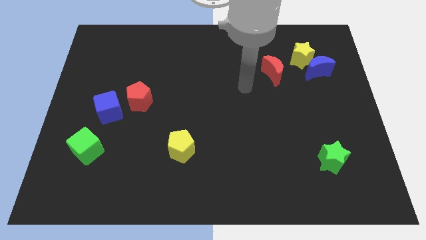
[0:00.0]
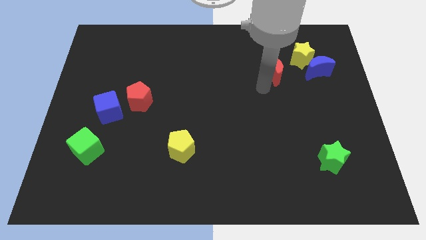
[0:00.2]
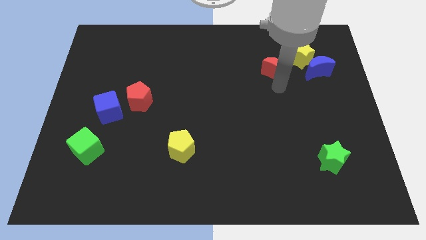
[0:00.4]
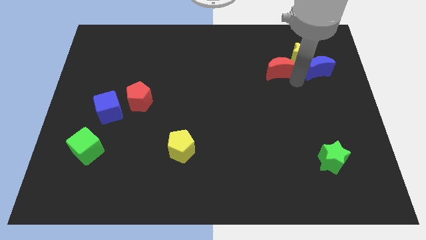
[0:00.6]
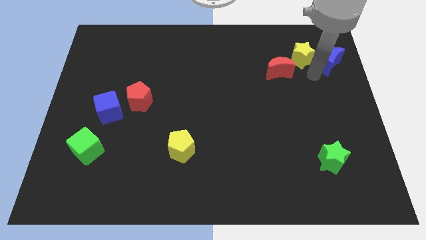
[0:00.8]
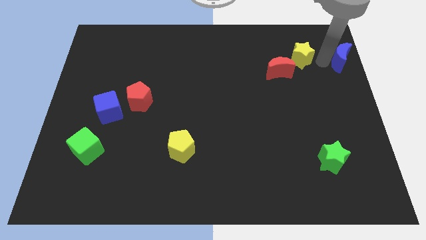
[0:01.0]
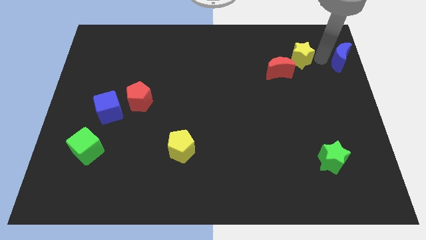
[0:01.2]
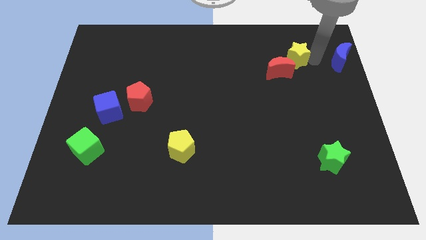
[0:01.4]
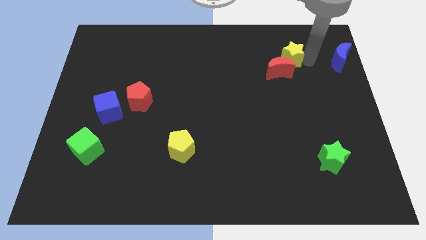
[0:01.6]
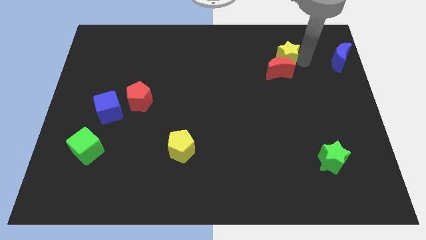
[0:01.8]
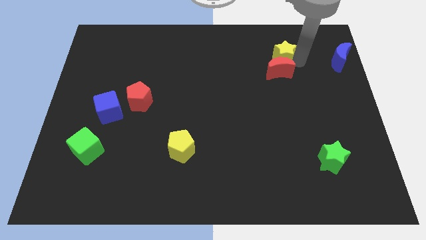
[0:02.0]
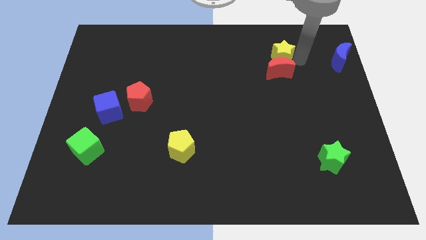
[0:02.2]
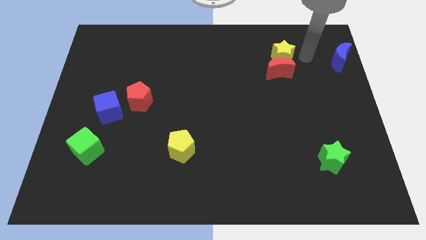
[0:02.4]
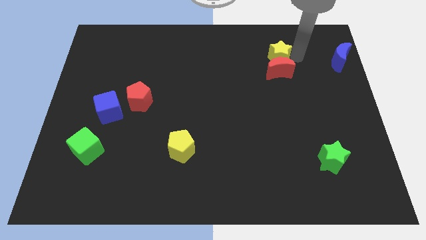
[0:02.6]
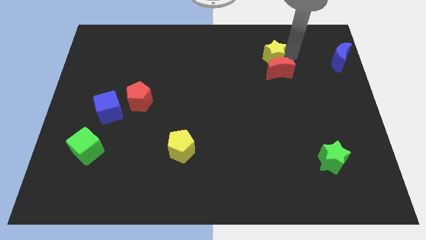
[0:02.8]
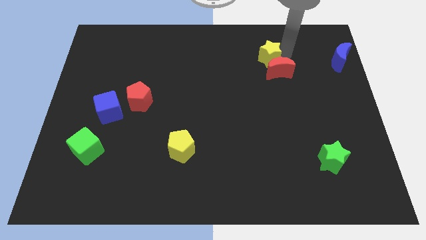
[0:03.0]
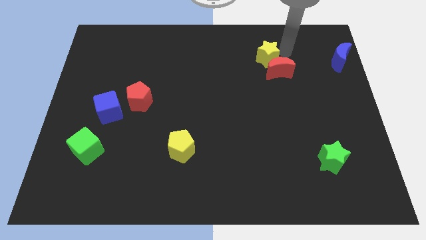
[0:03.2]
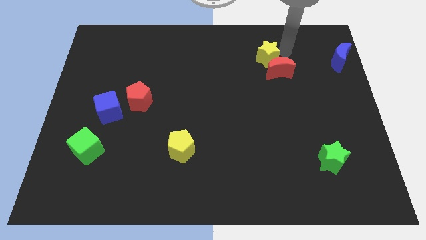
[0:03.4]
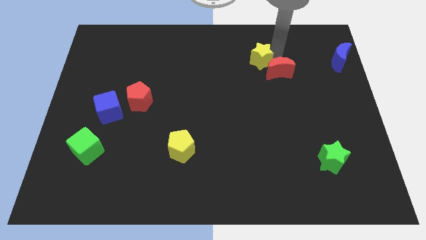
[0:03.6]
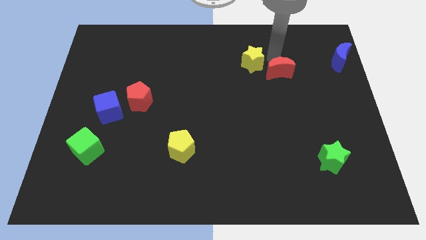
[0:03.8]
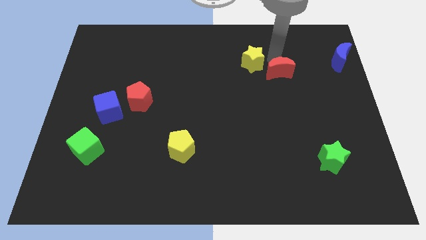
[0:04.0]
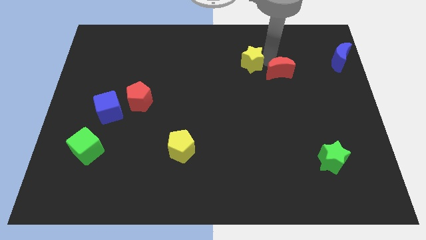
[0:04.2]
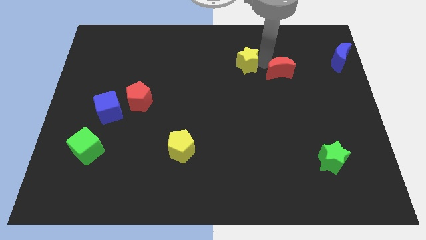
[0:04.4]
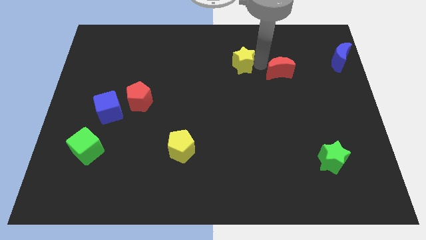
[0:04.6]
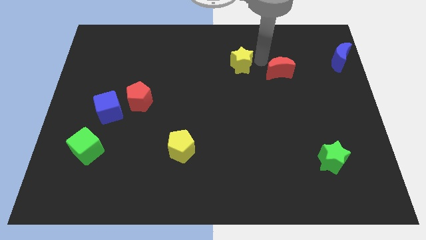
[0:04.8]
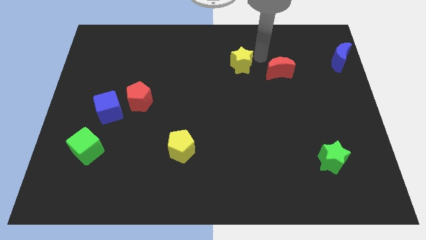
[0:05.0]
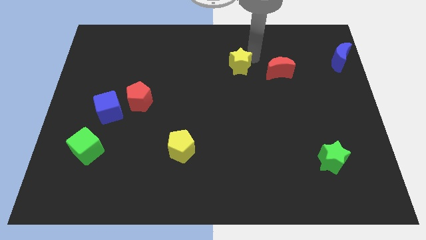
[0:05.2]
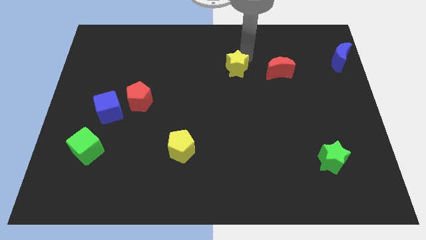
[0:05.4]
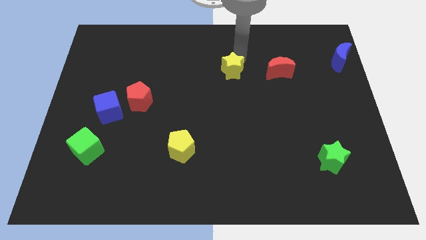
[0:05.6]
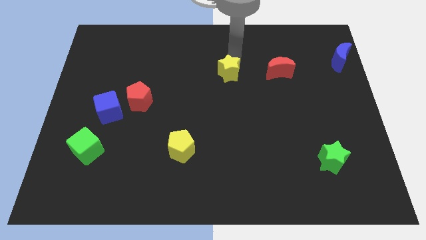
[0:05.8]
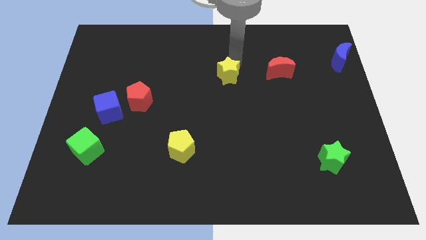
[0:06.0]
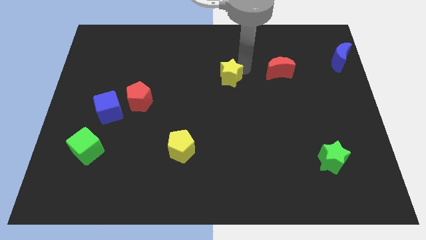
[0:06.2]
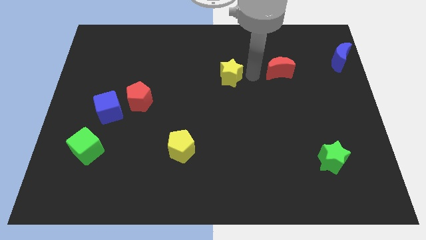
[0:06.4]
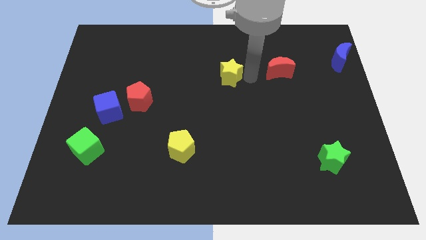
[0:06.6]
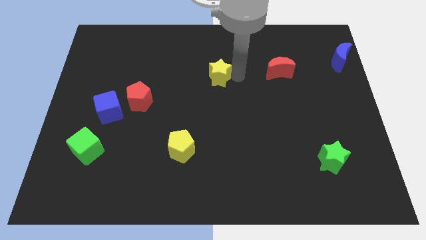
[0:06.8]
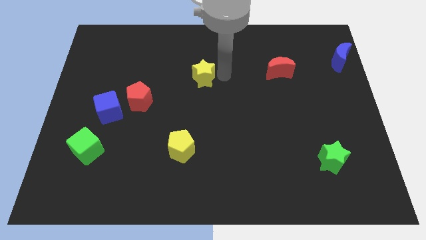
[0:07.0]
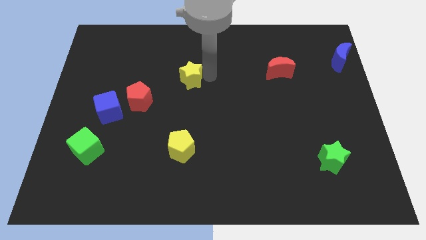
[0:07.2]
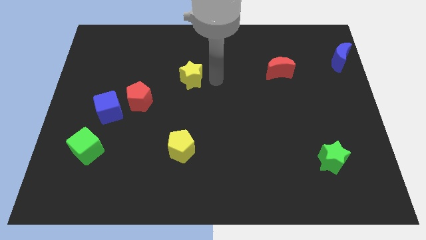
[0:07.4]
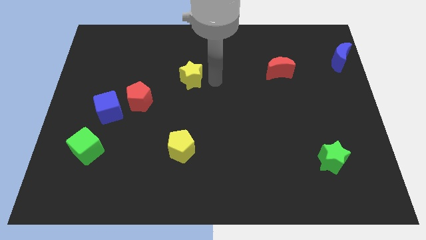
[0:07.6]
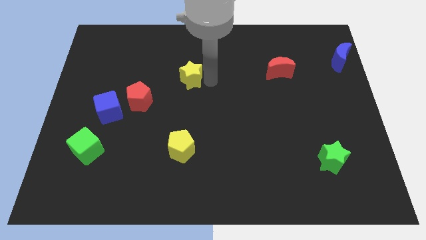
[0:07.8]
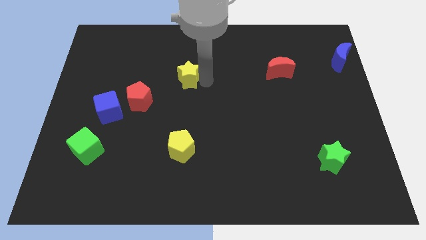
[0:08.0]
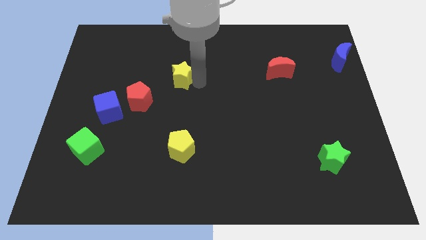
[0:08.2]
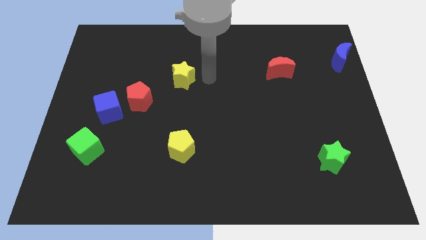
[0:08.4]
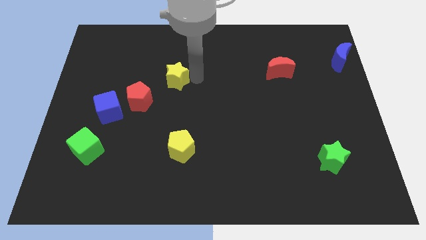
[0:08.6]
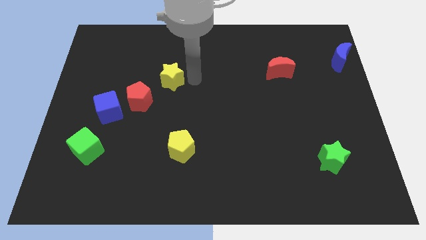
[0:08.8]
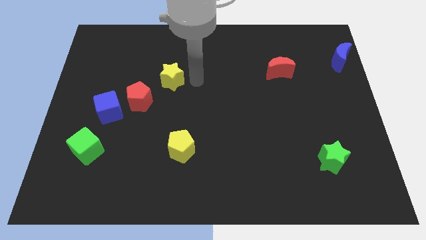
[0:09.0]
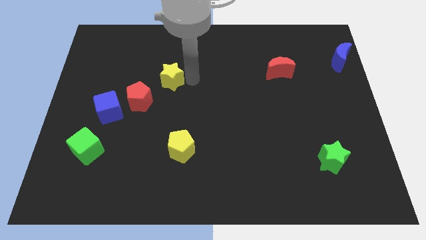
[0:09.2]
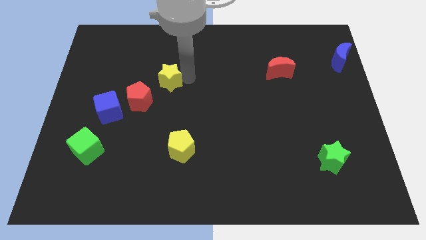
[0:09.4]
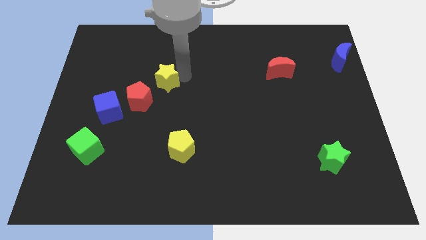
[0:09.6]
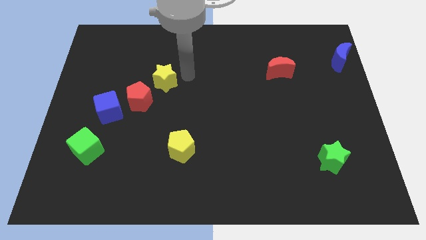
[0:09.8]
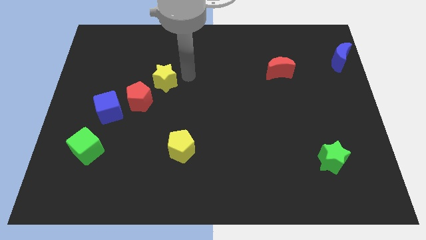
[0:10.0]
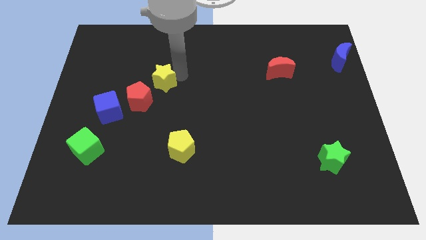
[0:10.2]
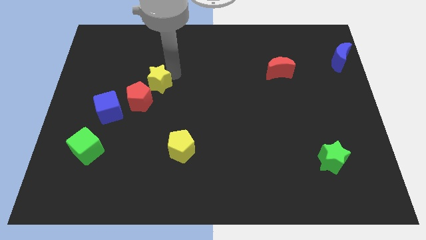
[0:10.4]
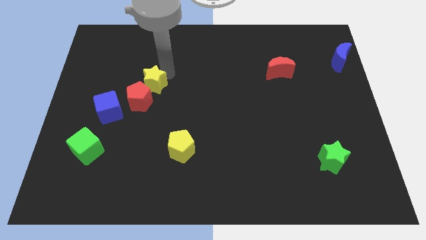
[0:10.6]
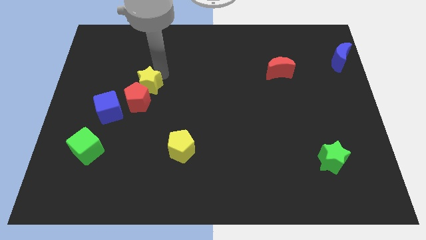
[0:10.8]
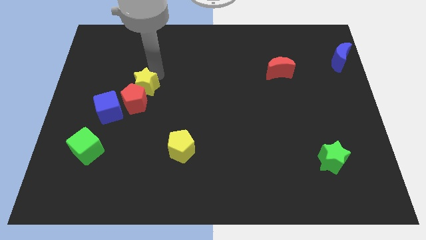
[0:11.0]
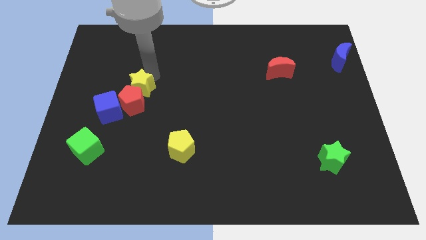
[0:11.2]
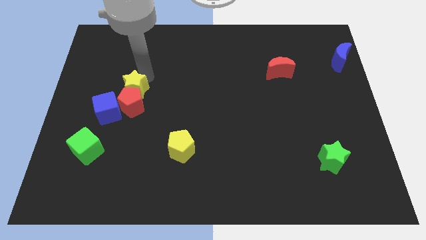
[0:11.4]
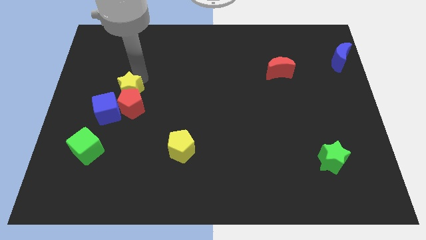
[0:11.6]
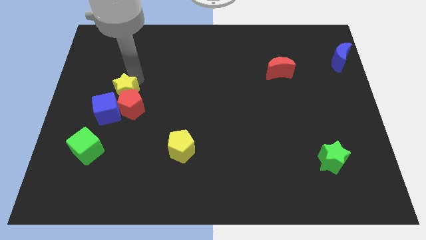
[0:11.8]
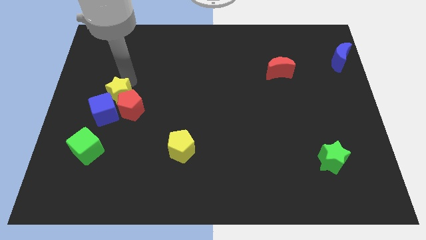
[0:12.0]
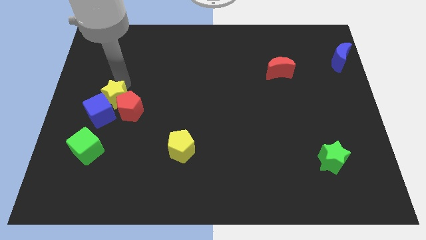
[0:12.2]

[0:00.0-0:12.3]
push the yellow star to the top of the green cube

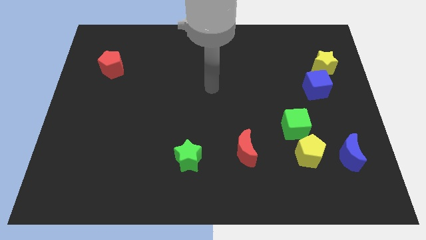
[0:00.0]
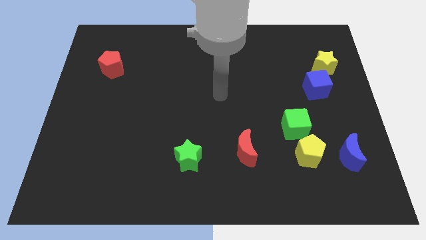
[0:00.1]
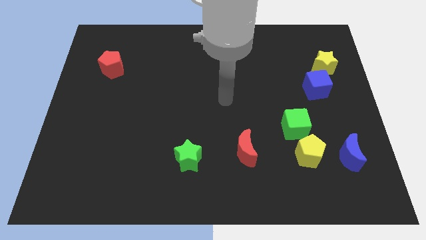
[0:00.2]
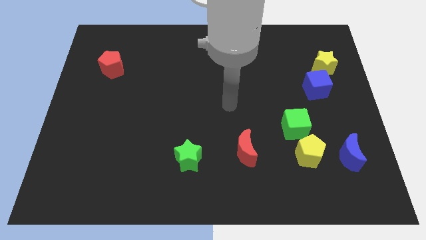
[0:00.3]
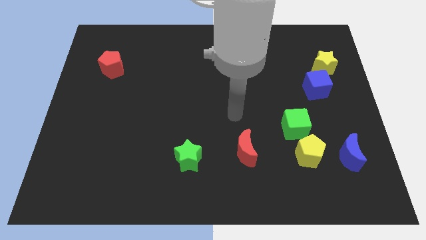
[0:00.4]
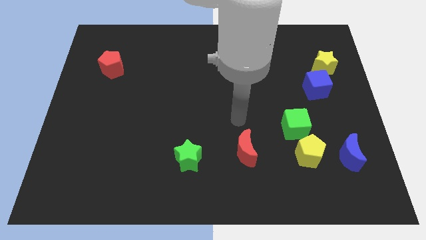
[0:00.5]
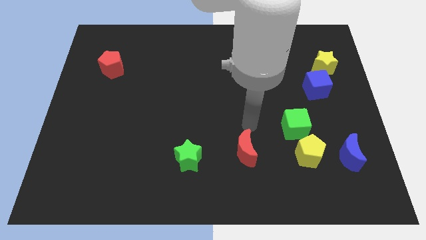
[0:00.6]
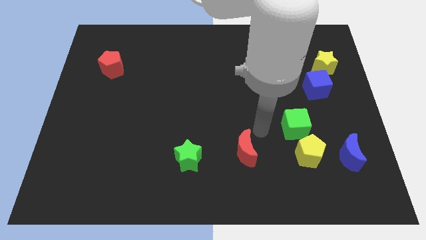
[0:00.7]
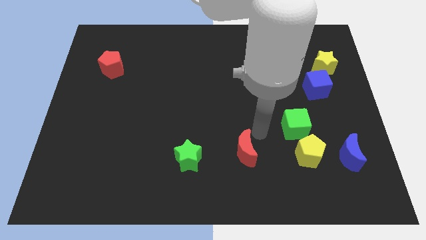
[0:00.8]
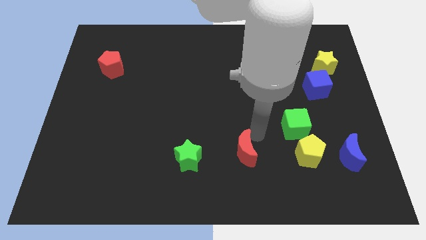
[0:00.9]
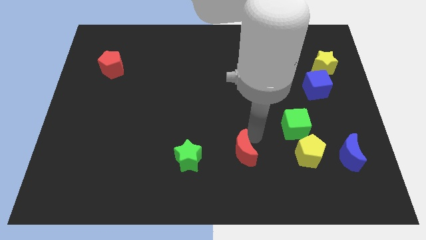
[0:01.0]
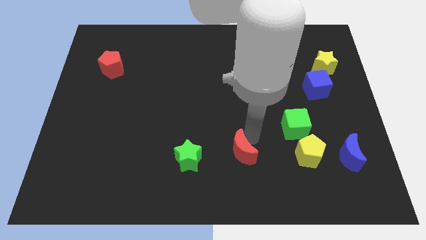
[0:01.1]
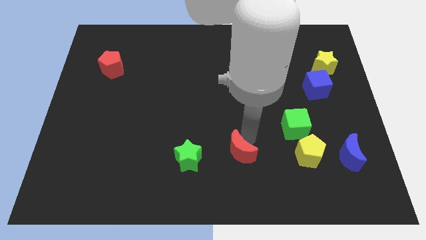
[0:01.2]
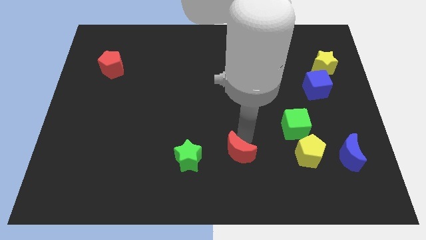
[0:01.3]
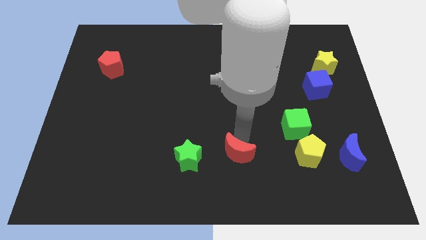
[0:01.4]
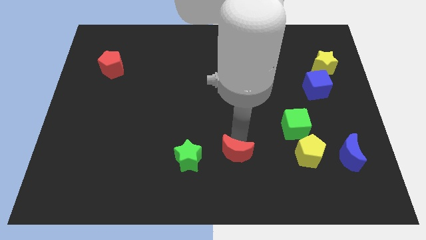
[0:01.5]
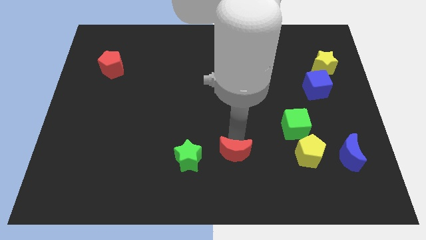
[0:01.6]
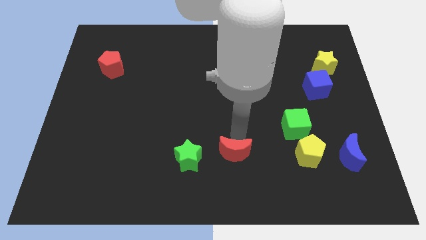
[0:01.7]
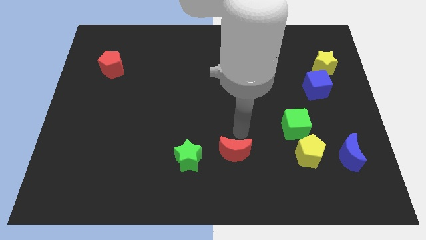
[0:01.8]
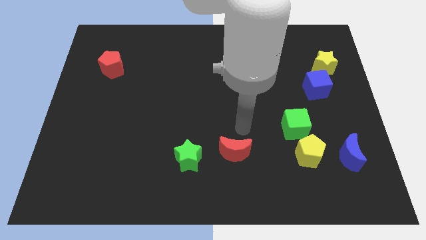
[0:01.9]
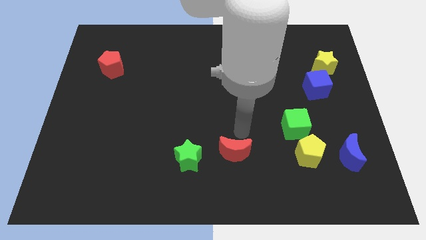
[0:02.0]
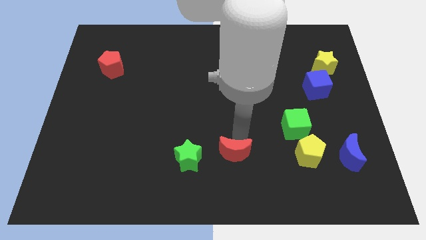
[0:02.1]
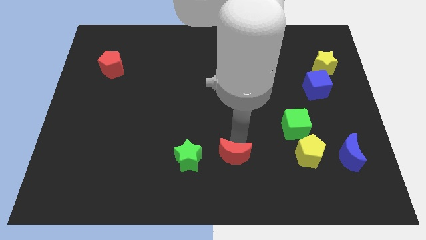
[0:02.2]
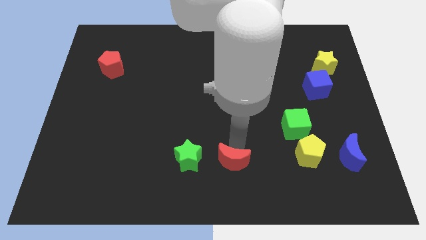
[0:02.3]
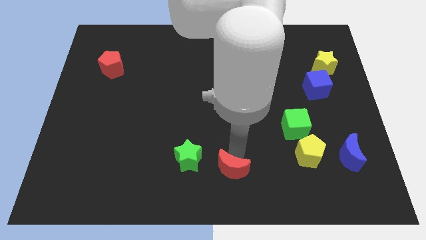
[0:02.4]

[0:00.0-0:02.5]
put the red moon to the bottom right of the green star
